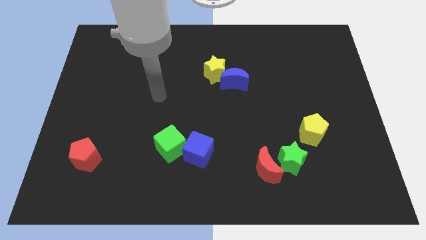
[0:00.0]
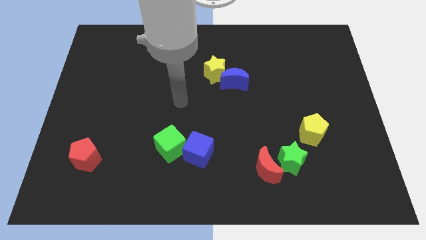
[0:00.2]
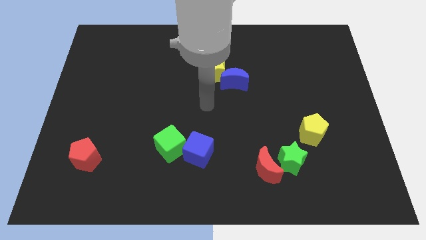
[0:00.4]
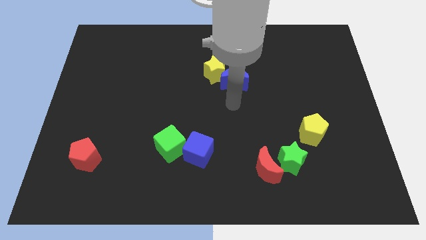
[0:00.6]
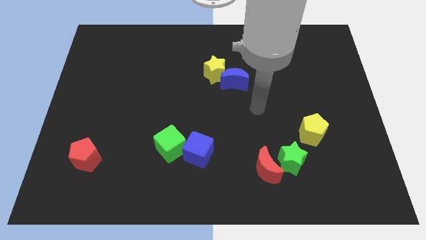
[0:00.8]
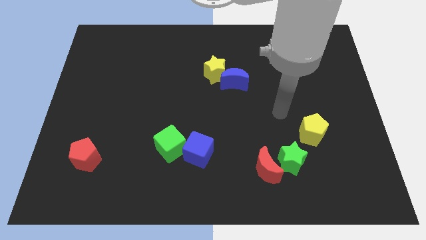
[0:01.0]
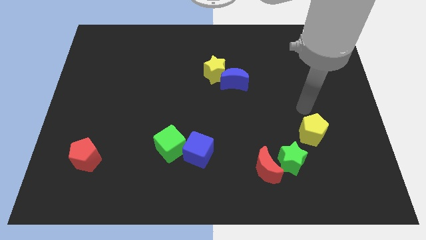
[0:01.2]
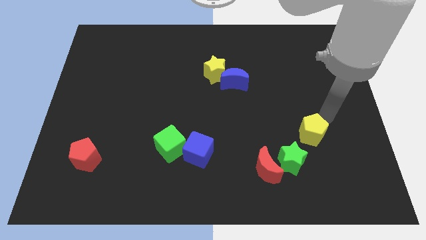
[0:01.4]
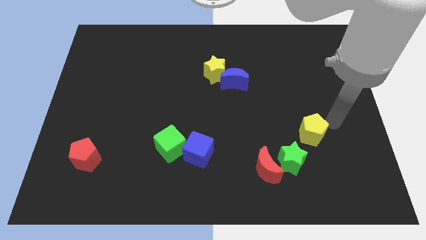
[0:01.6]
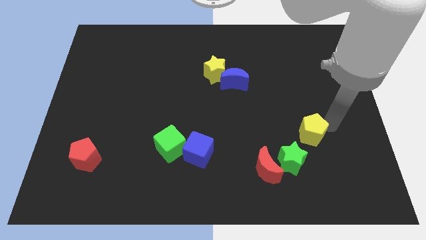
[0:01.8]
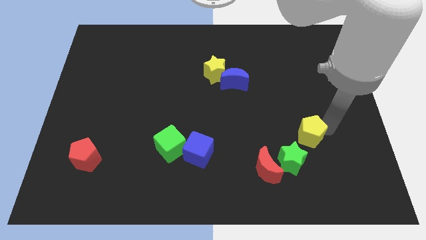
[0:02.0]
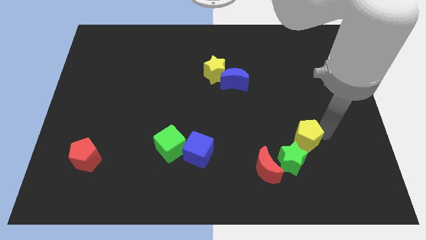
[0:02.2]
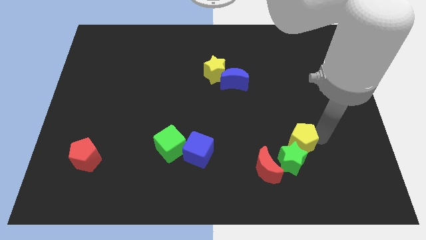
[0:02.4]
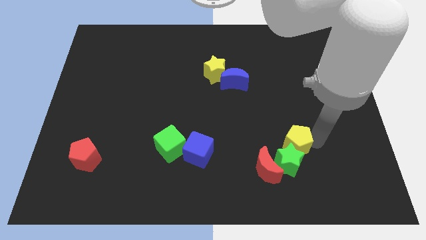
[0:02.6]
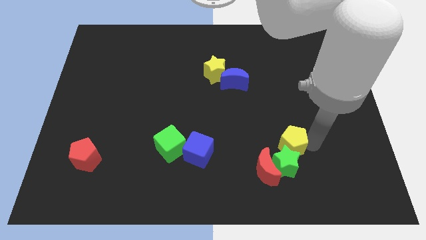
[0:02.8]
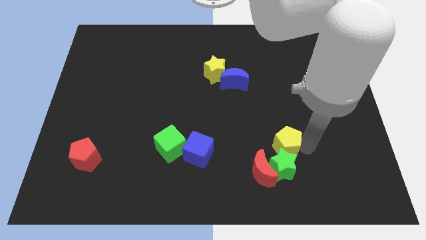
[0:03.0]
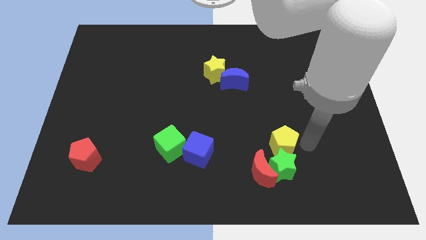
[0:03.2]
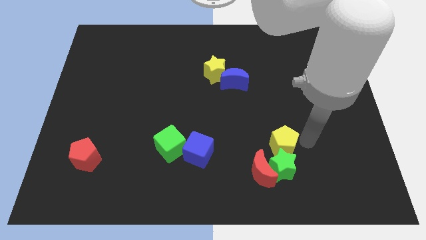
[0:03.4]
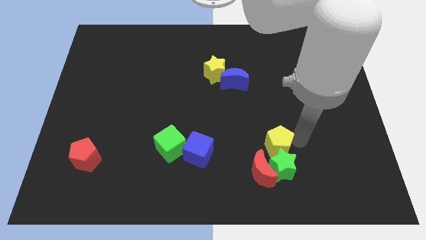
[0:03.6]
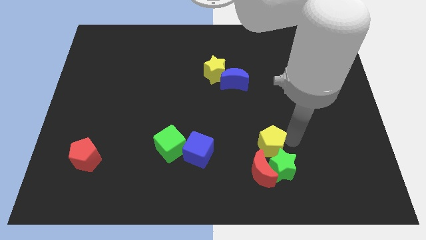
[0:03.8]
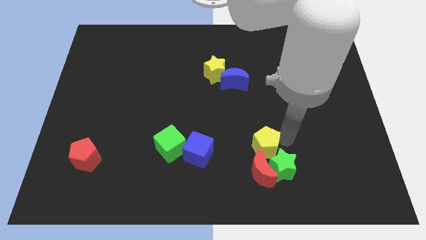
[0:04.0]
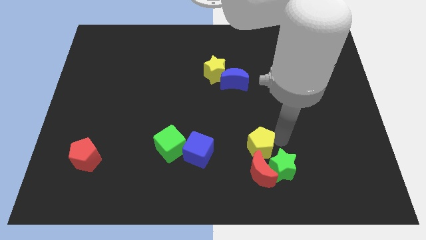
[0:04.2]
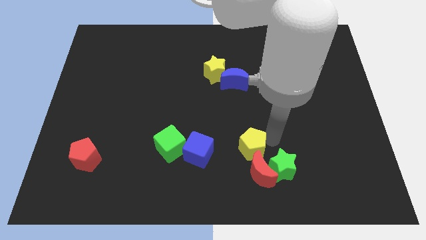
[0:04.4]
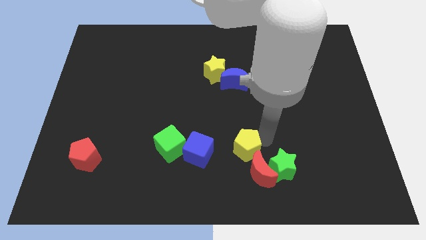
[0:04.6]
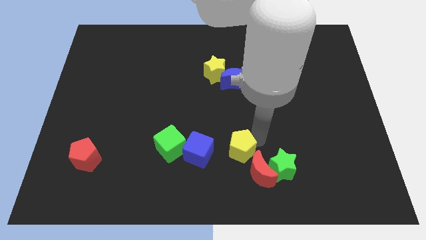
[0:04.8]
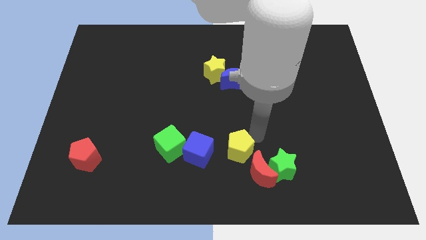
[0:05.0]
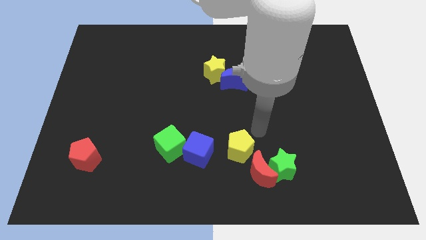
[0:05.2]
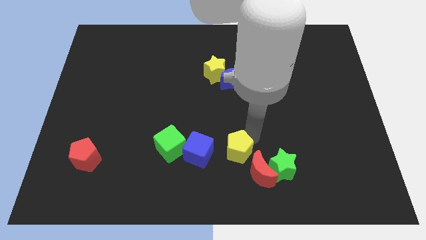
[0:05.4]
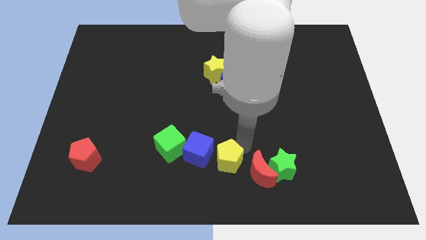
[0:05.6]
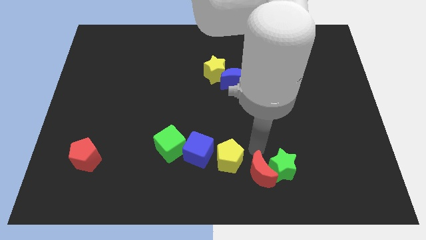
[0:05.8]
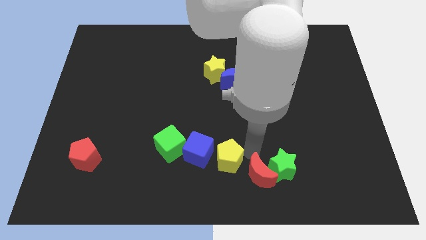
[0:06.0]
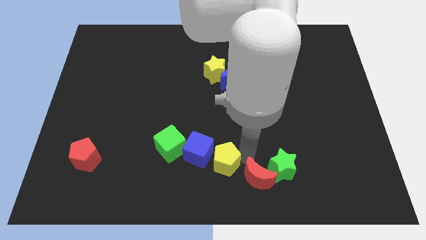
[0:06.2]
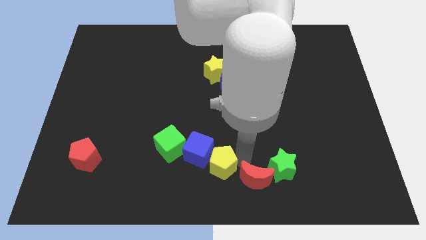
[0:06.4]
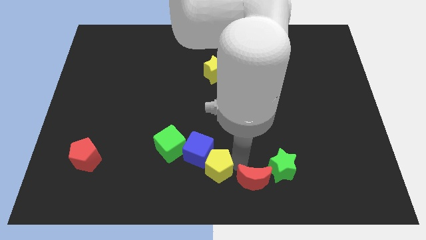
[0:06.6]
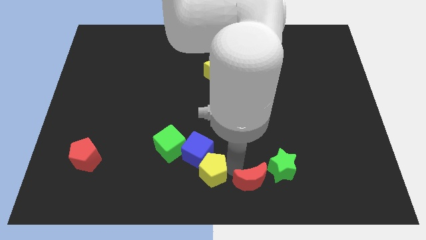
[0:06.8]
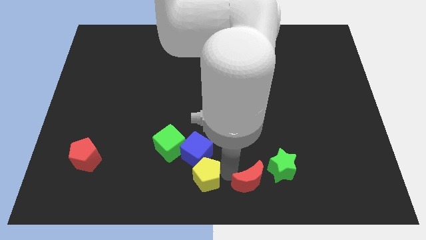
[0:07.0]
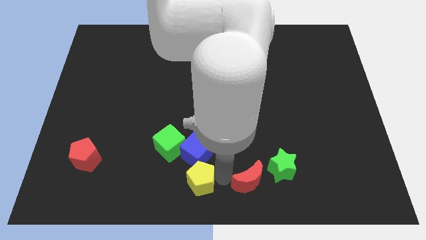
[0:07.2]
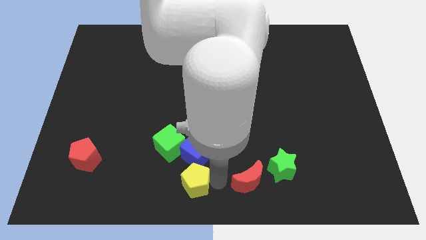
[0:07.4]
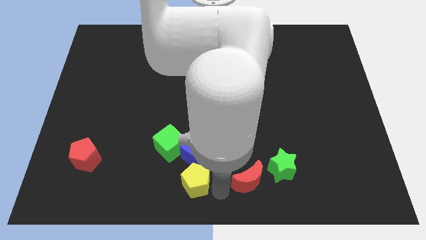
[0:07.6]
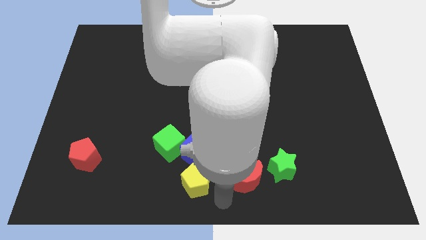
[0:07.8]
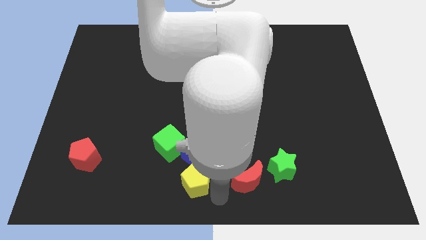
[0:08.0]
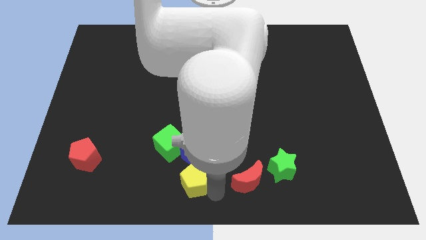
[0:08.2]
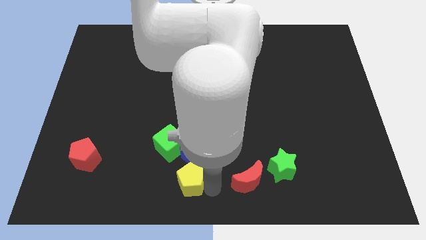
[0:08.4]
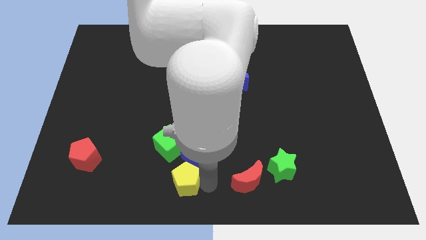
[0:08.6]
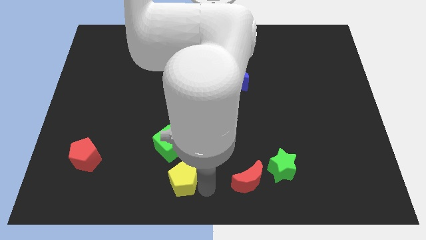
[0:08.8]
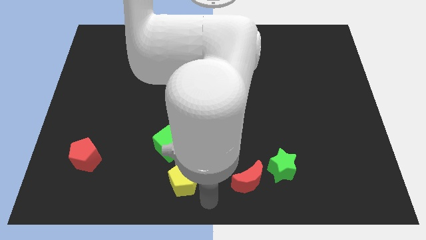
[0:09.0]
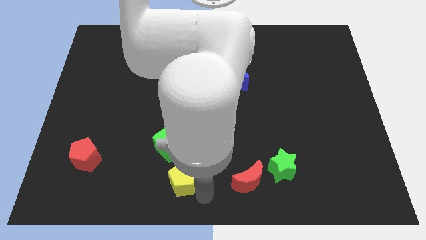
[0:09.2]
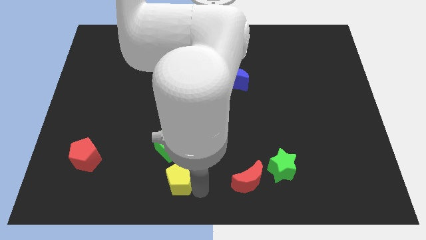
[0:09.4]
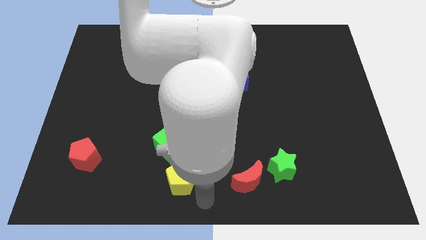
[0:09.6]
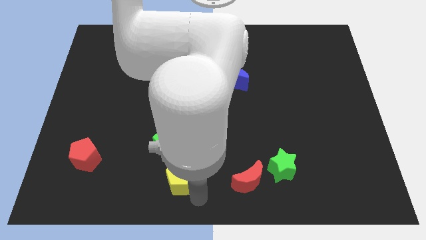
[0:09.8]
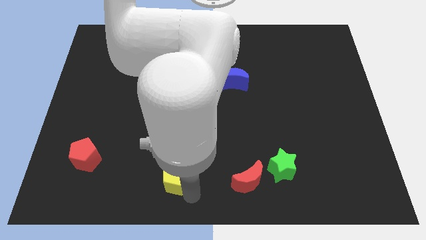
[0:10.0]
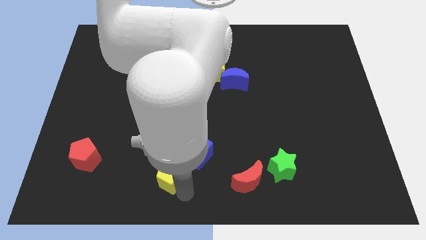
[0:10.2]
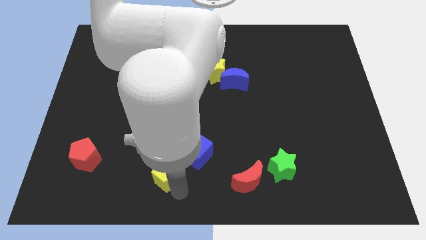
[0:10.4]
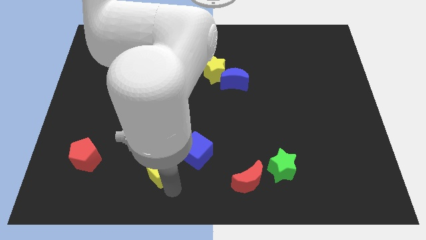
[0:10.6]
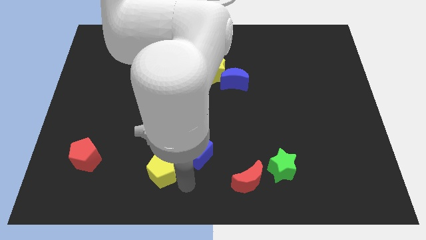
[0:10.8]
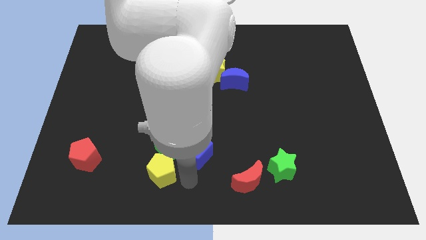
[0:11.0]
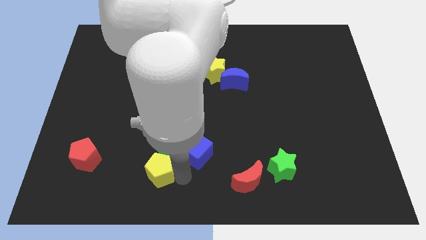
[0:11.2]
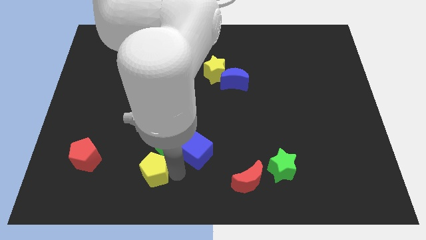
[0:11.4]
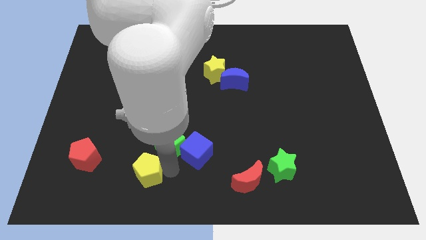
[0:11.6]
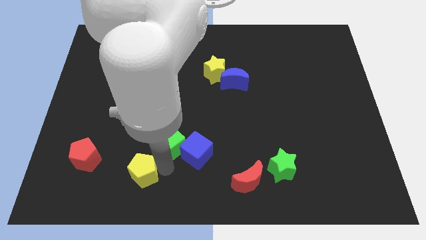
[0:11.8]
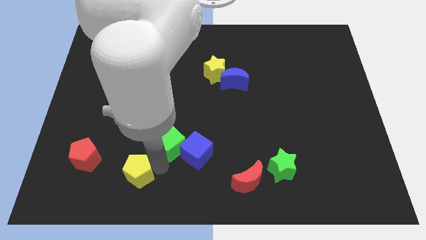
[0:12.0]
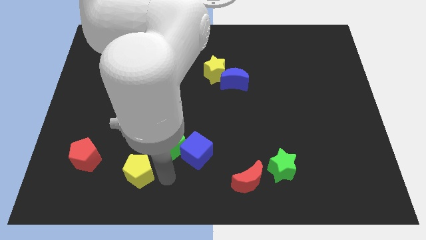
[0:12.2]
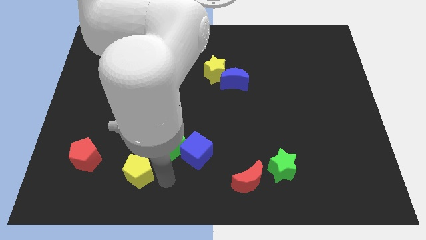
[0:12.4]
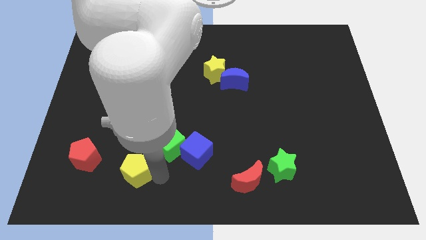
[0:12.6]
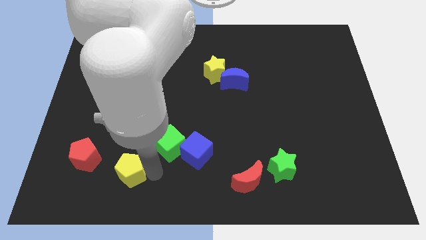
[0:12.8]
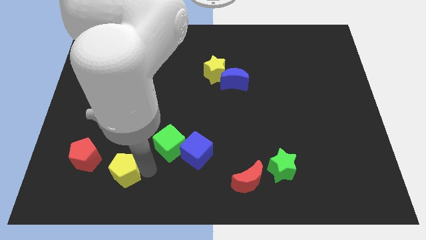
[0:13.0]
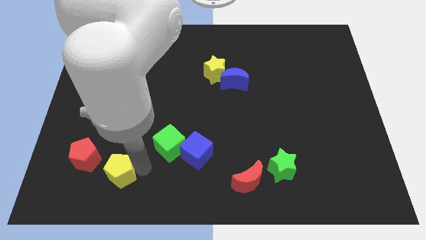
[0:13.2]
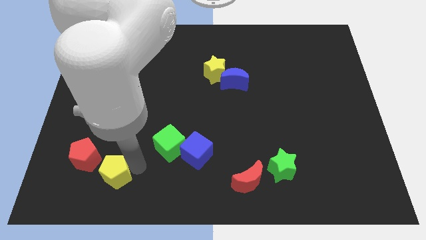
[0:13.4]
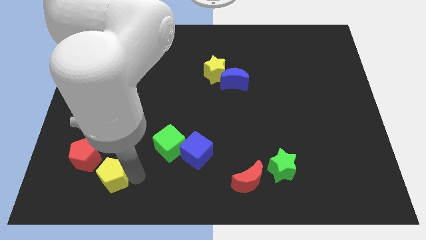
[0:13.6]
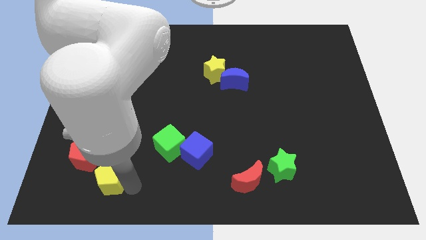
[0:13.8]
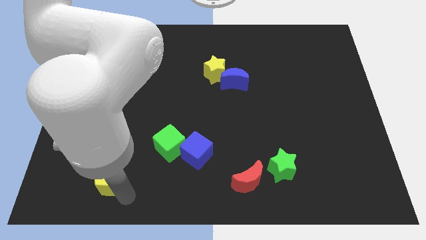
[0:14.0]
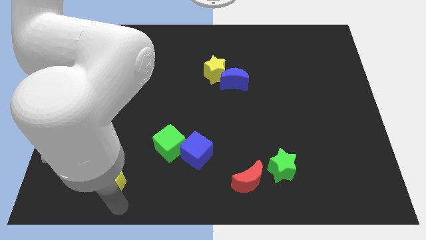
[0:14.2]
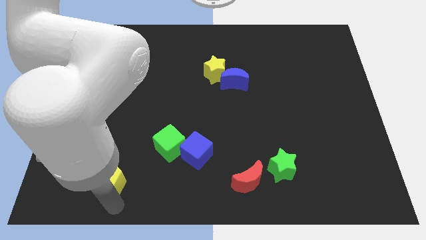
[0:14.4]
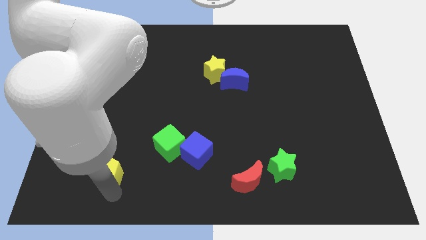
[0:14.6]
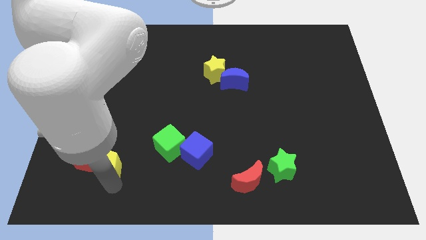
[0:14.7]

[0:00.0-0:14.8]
put the yellow pentagon close to the red pentagon

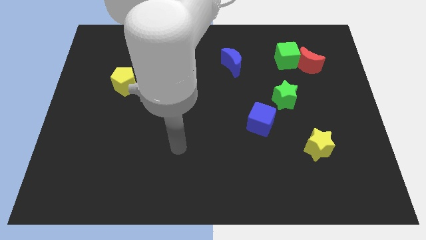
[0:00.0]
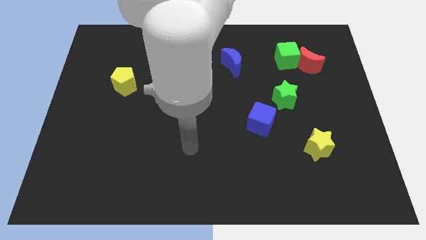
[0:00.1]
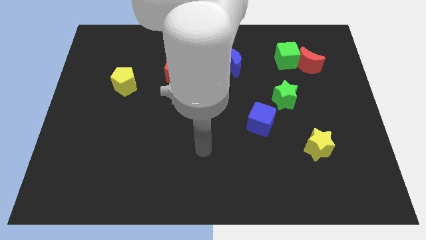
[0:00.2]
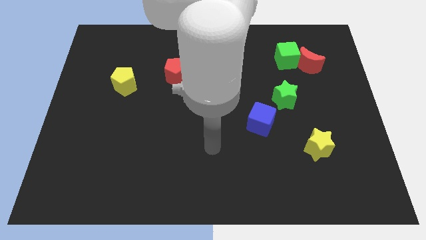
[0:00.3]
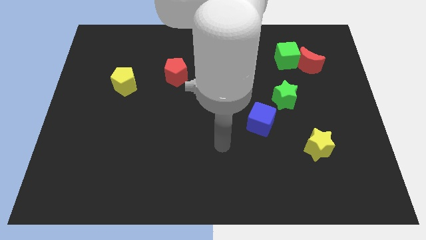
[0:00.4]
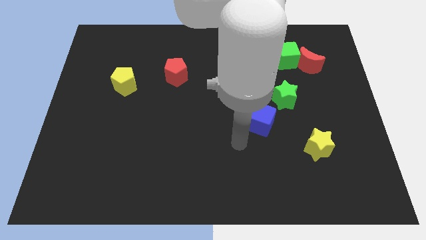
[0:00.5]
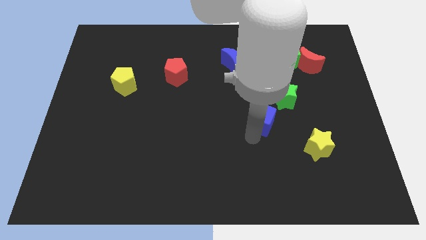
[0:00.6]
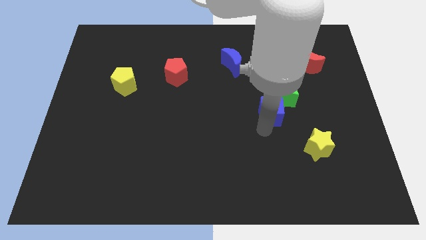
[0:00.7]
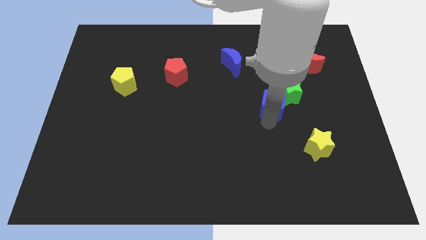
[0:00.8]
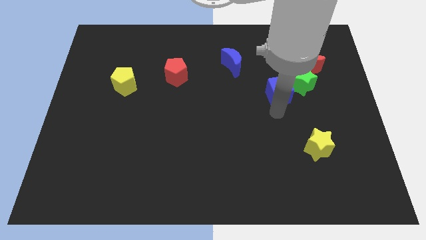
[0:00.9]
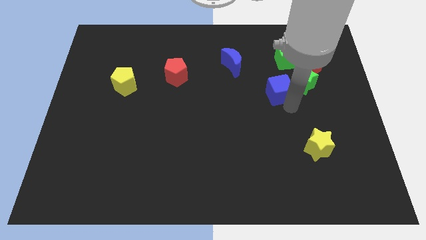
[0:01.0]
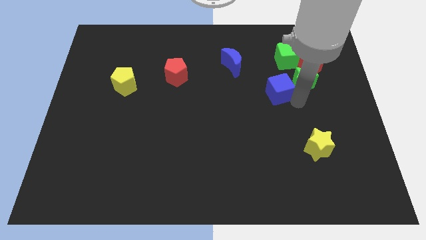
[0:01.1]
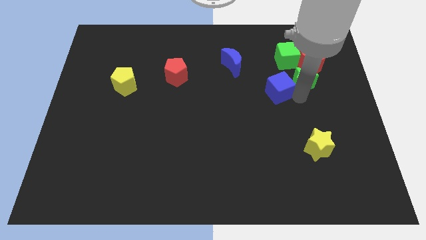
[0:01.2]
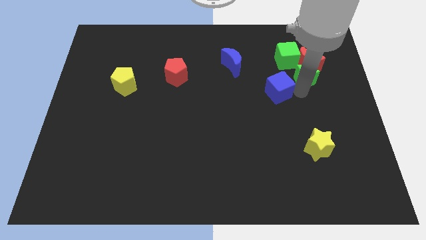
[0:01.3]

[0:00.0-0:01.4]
slide the green star close to the red moon
